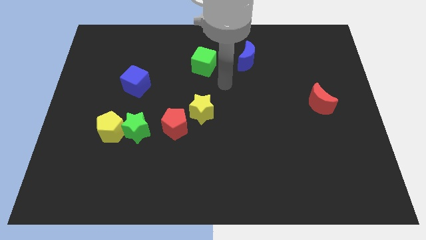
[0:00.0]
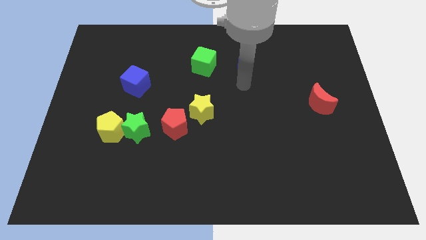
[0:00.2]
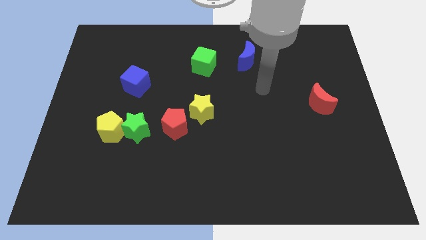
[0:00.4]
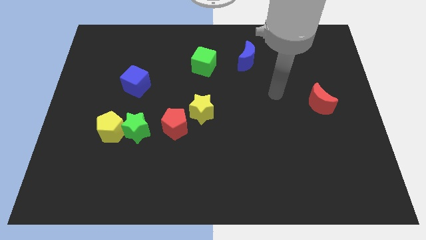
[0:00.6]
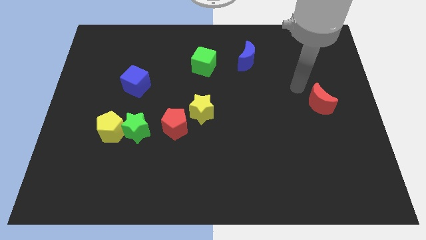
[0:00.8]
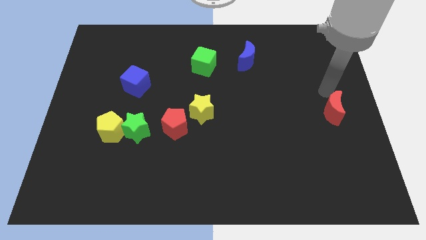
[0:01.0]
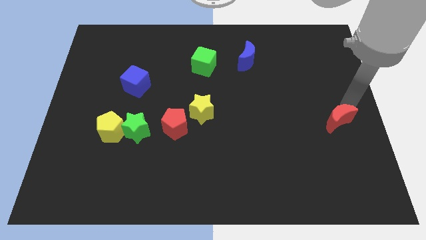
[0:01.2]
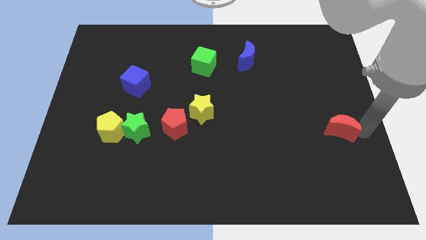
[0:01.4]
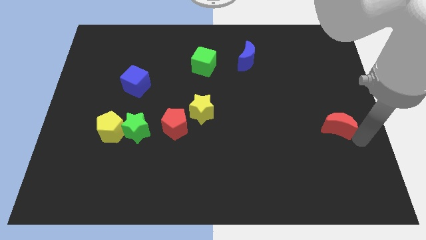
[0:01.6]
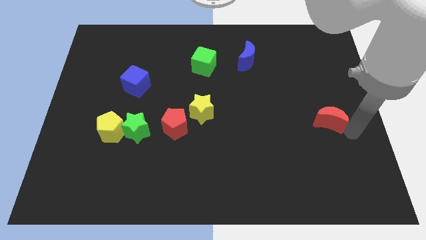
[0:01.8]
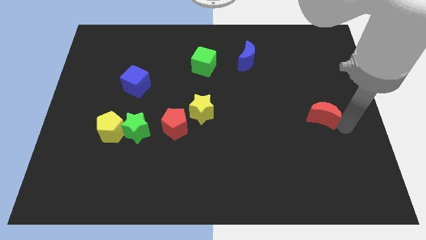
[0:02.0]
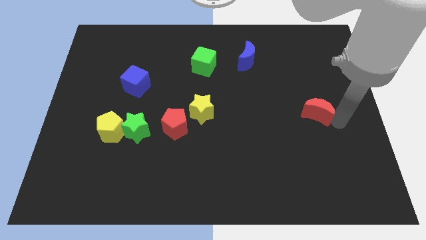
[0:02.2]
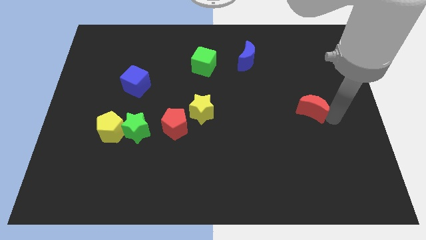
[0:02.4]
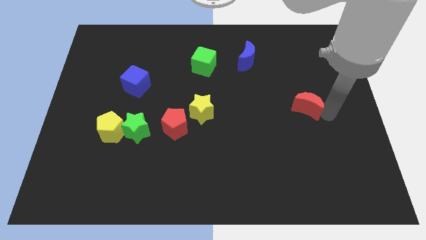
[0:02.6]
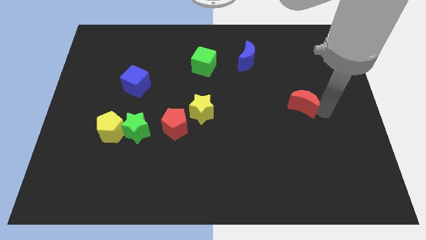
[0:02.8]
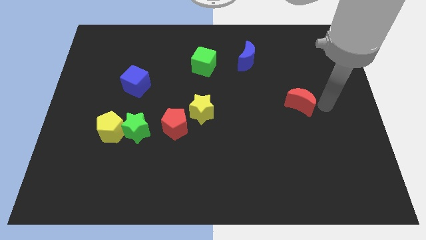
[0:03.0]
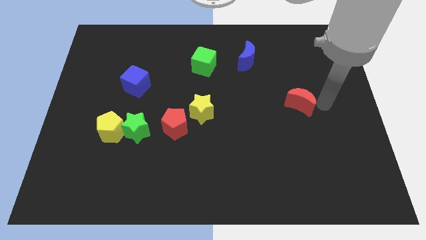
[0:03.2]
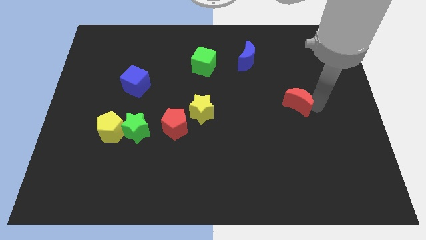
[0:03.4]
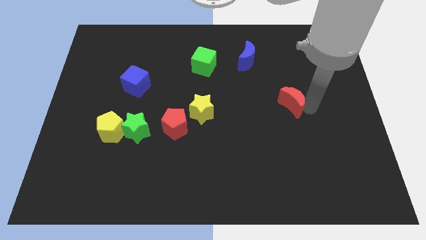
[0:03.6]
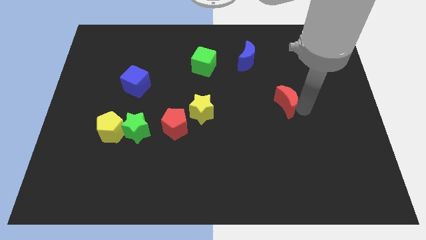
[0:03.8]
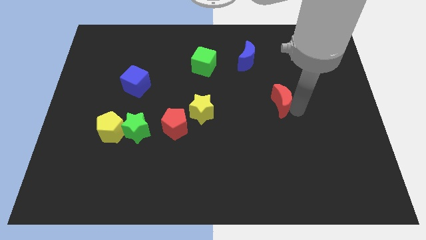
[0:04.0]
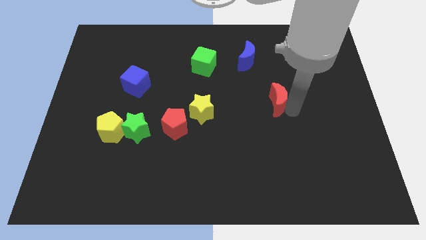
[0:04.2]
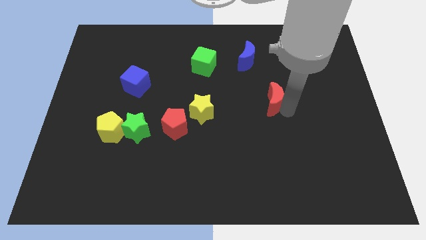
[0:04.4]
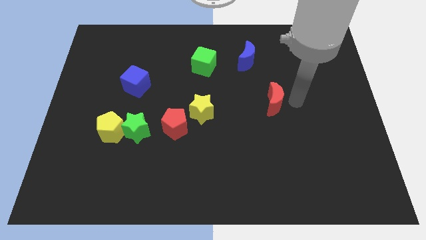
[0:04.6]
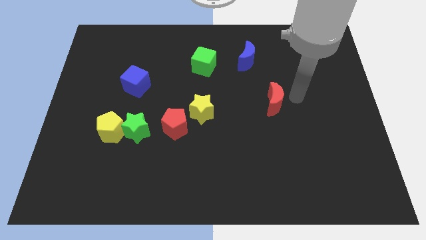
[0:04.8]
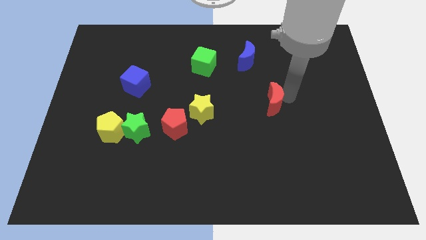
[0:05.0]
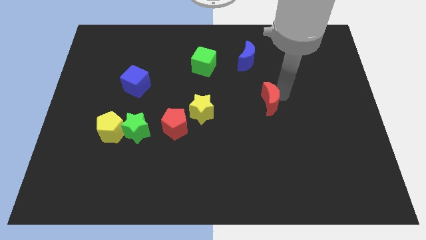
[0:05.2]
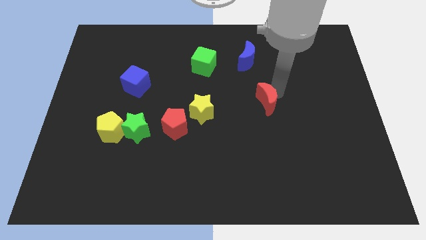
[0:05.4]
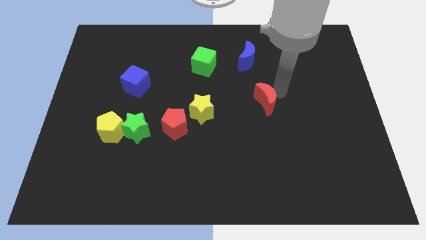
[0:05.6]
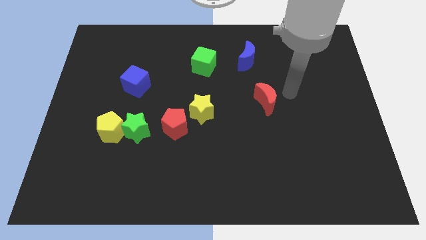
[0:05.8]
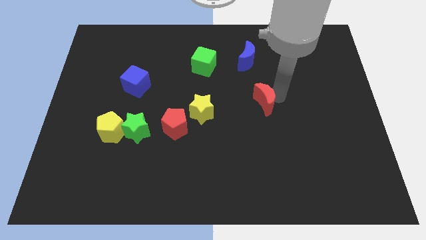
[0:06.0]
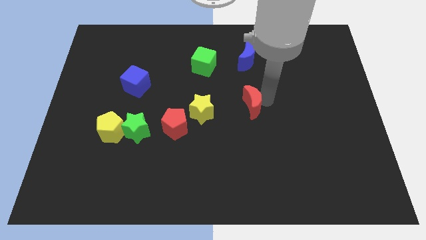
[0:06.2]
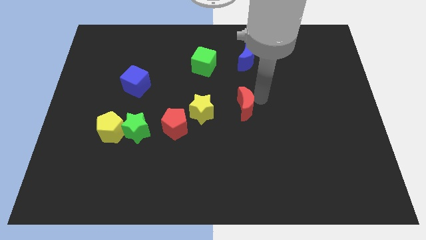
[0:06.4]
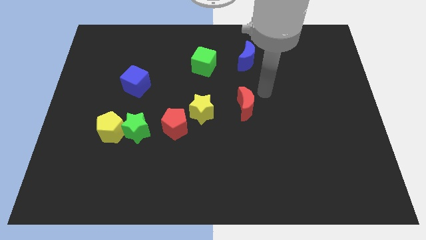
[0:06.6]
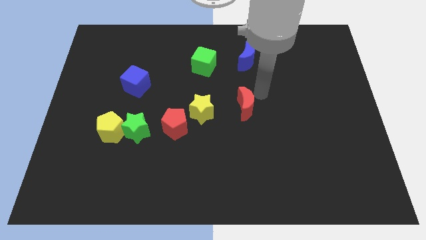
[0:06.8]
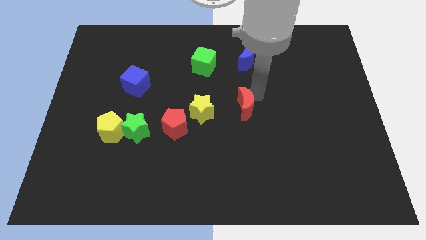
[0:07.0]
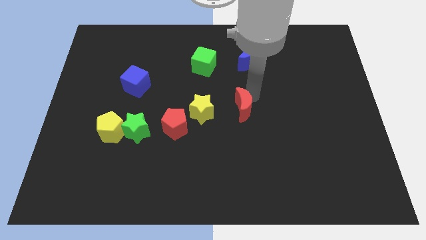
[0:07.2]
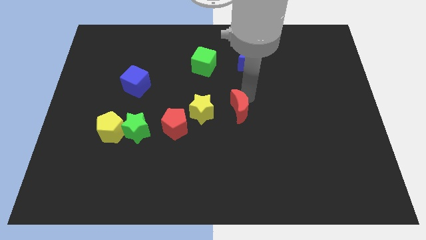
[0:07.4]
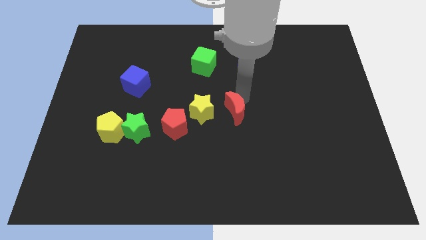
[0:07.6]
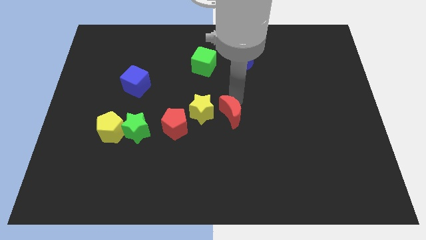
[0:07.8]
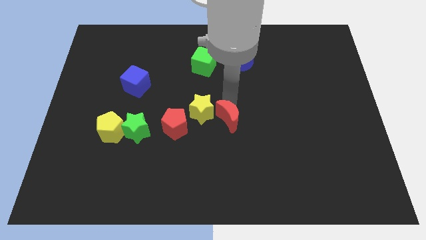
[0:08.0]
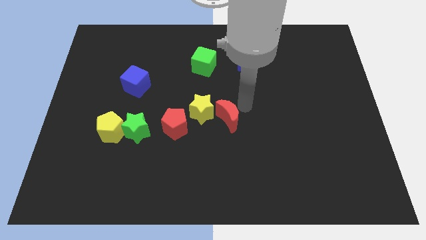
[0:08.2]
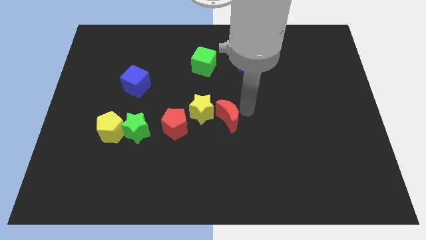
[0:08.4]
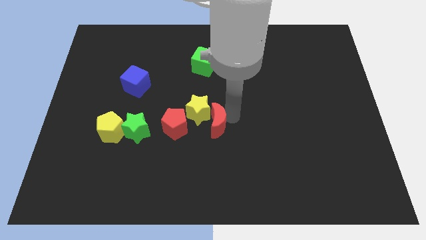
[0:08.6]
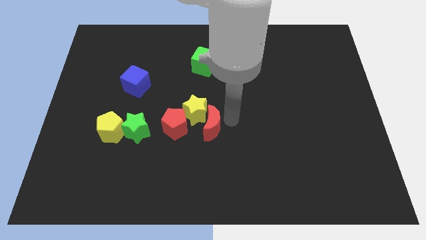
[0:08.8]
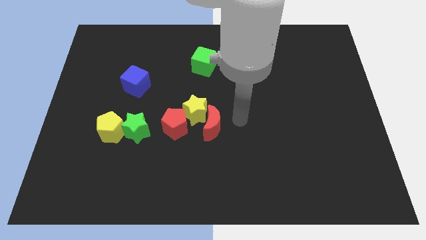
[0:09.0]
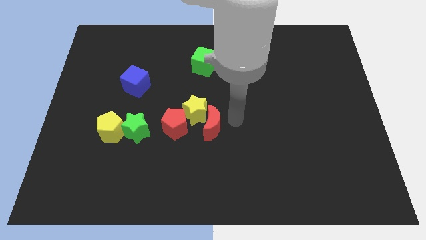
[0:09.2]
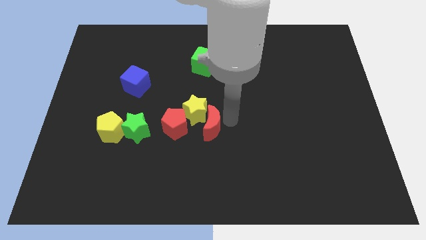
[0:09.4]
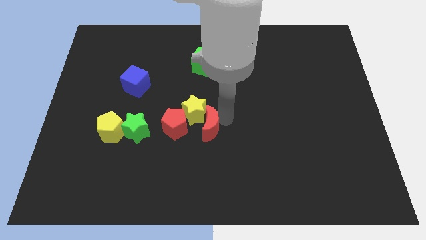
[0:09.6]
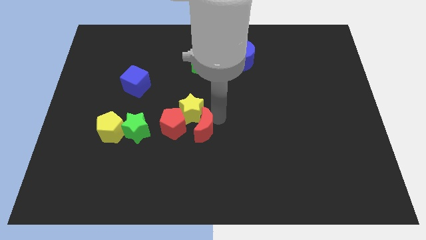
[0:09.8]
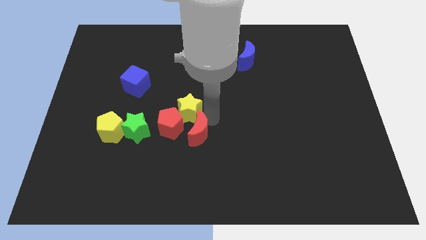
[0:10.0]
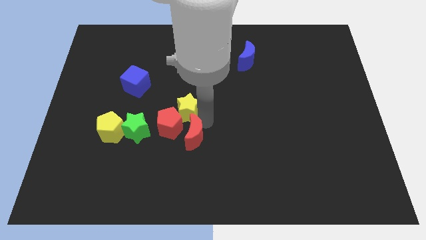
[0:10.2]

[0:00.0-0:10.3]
put the red moon next to the red pentagon

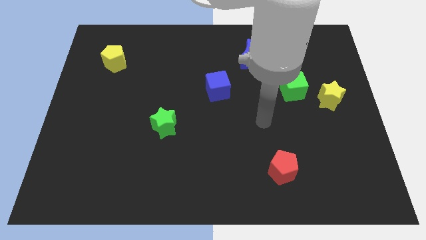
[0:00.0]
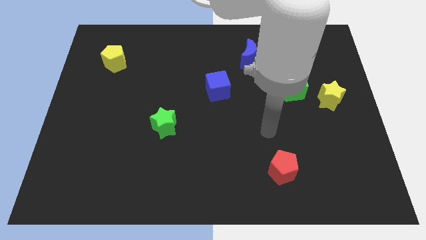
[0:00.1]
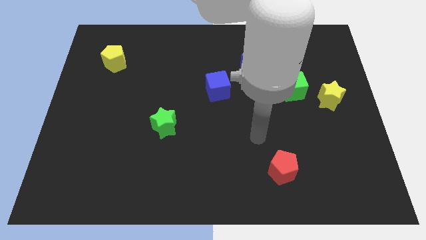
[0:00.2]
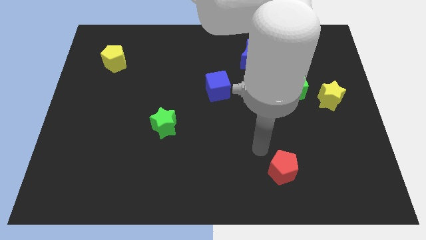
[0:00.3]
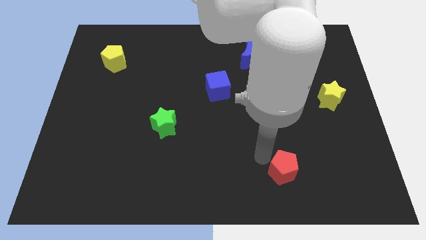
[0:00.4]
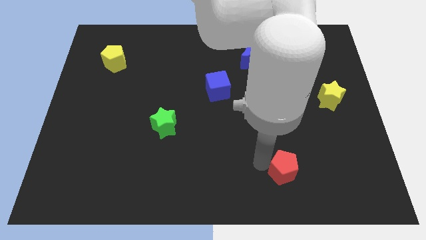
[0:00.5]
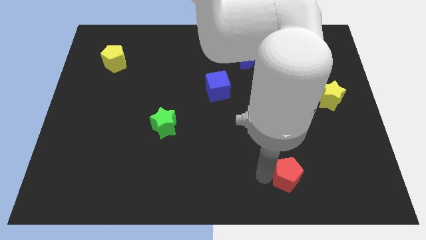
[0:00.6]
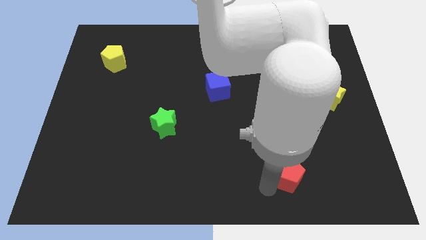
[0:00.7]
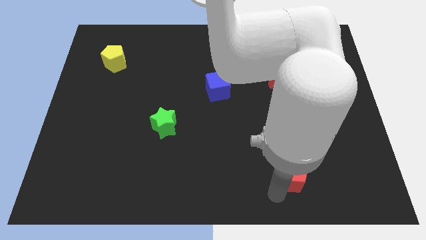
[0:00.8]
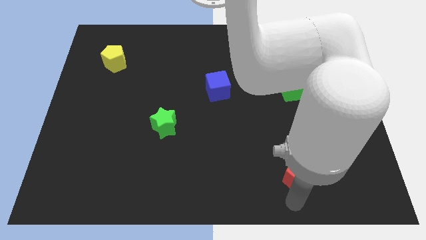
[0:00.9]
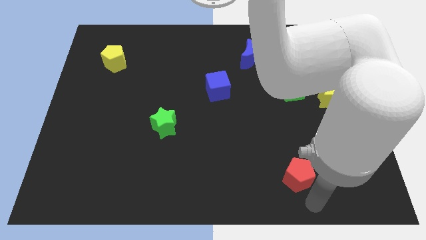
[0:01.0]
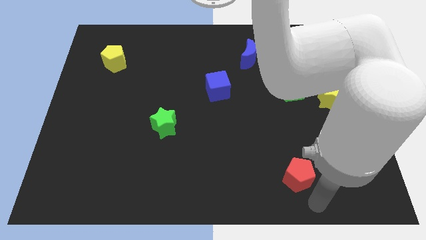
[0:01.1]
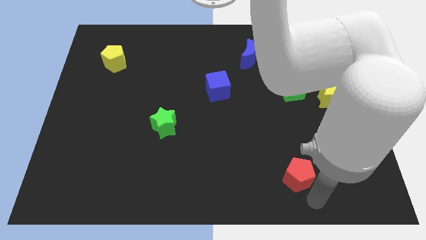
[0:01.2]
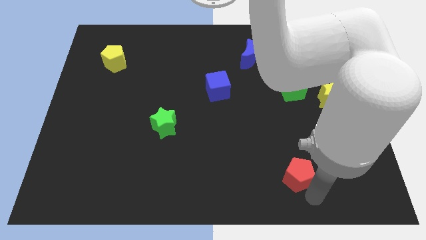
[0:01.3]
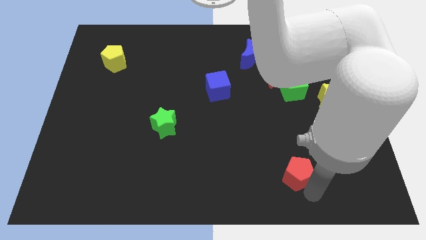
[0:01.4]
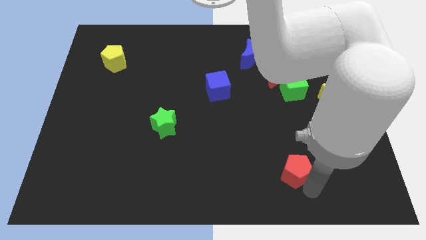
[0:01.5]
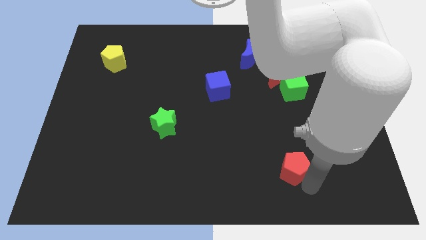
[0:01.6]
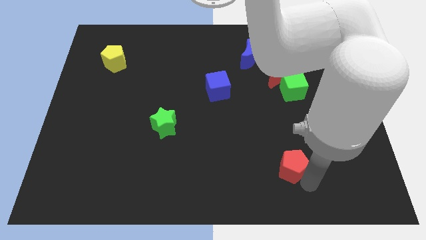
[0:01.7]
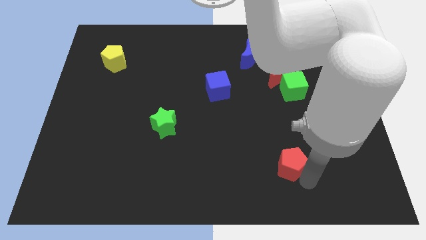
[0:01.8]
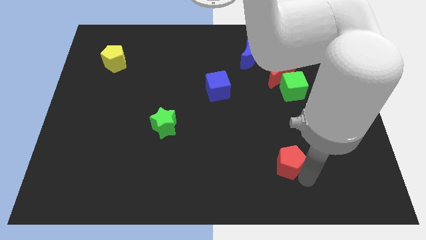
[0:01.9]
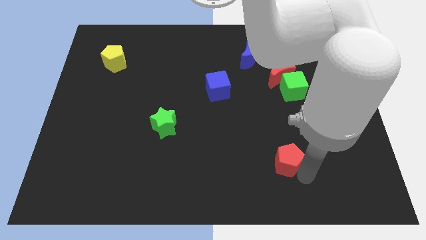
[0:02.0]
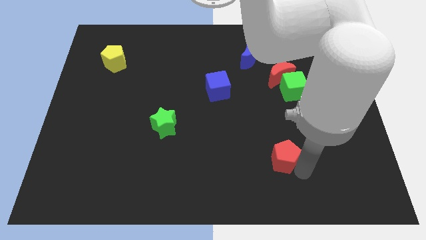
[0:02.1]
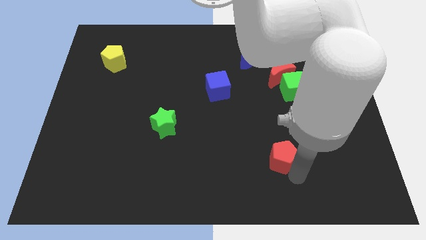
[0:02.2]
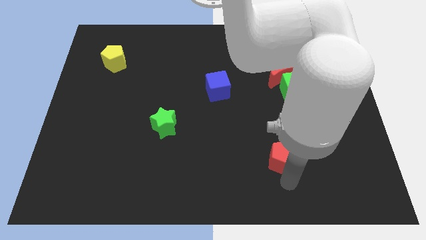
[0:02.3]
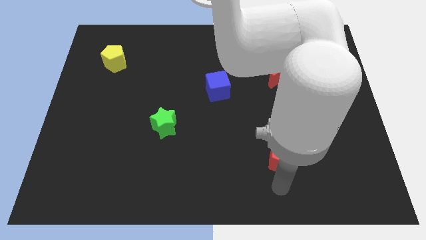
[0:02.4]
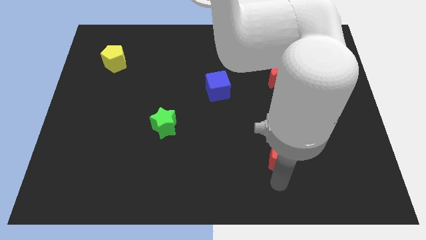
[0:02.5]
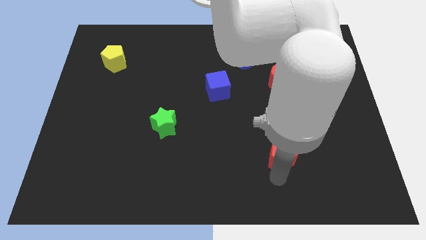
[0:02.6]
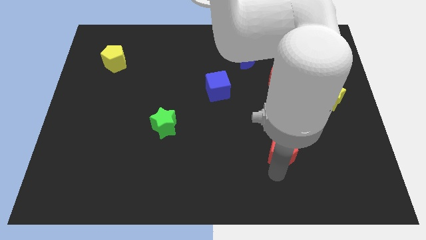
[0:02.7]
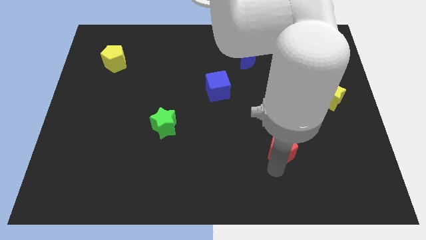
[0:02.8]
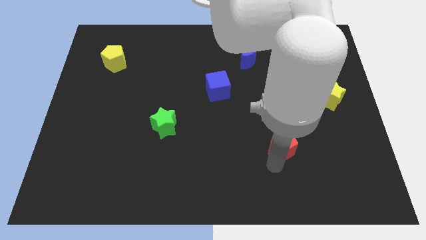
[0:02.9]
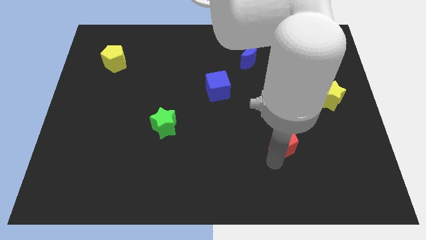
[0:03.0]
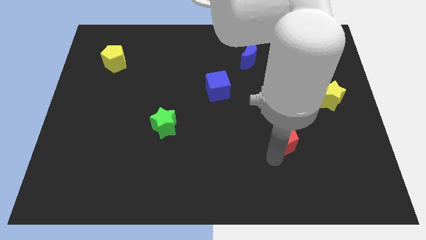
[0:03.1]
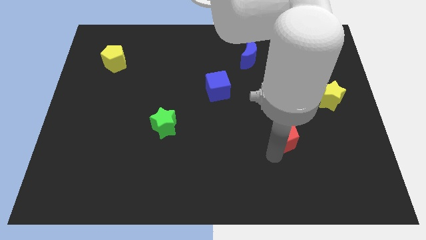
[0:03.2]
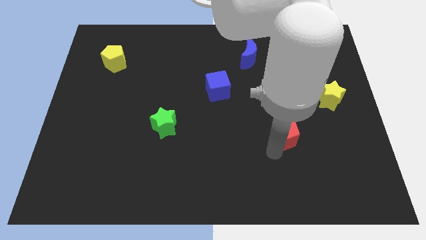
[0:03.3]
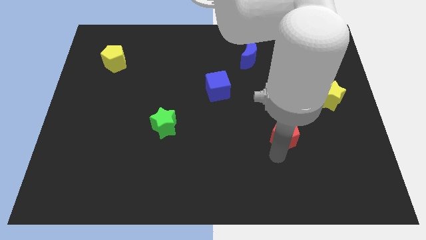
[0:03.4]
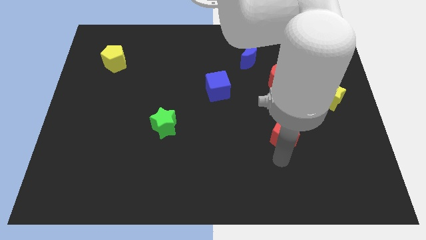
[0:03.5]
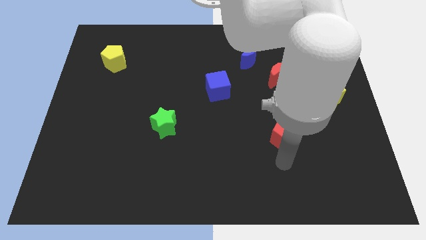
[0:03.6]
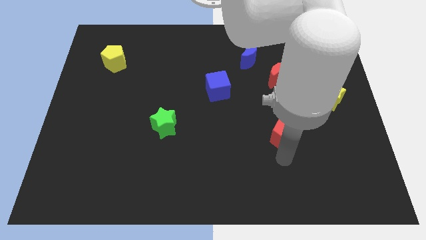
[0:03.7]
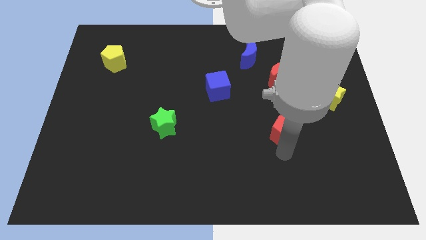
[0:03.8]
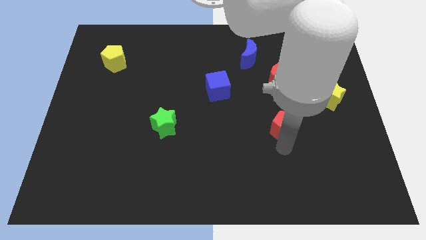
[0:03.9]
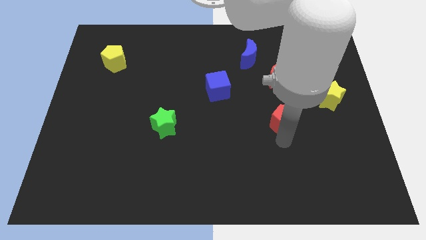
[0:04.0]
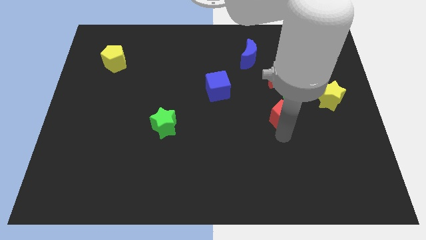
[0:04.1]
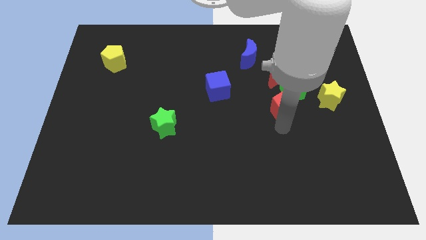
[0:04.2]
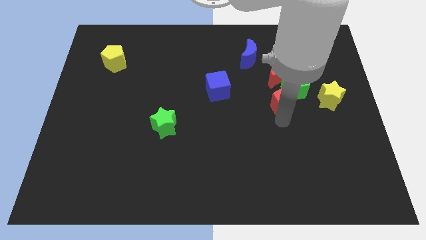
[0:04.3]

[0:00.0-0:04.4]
slide the red pentagon towards the green cube
